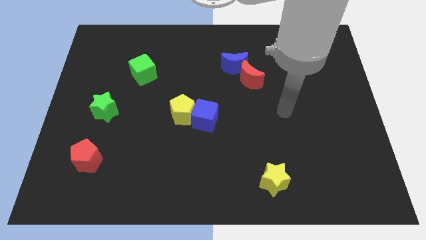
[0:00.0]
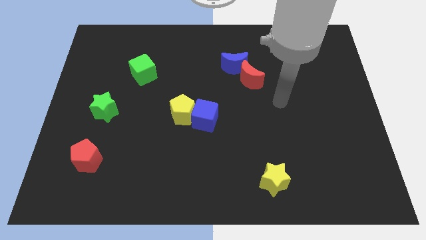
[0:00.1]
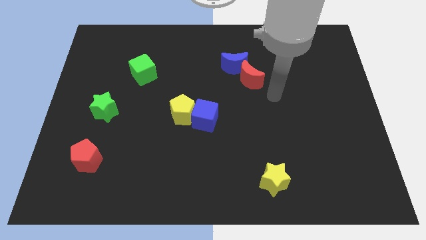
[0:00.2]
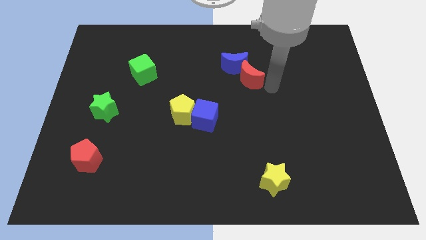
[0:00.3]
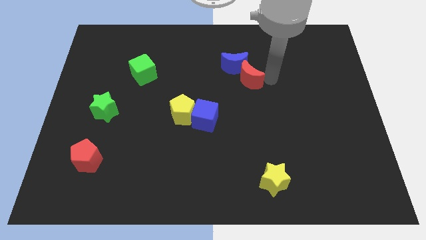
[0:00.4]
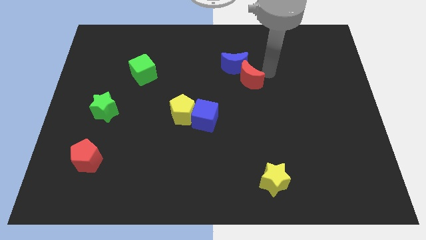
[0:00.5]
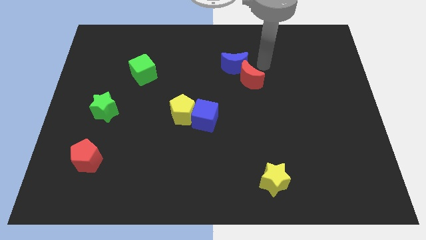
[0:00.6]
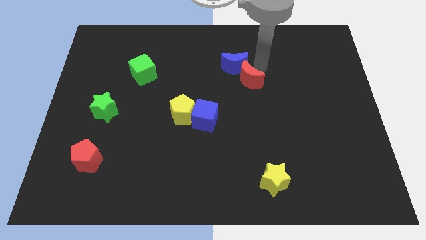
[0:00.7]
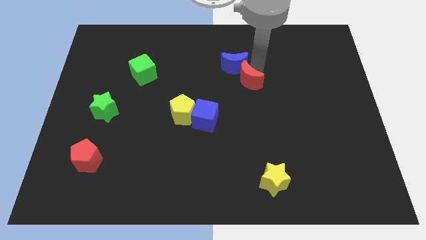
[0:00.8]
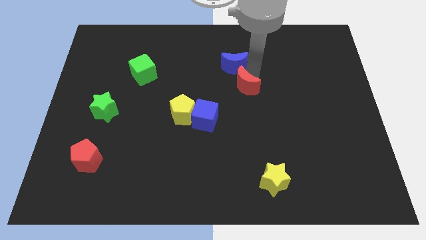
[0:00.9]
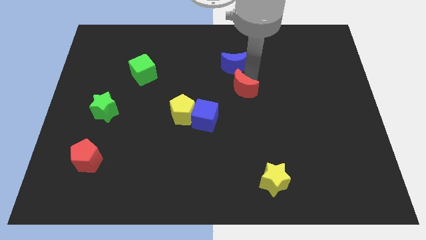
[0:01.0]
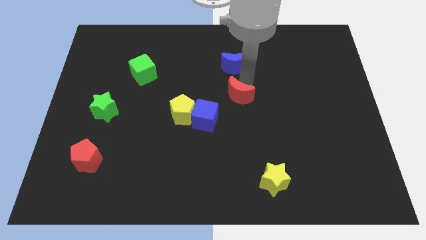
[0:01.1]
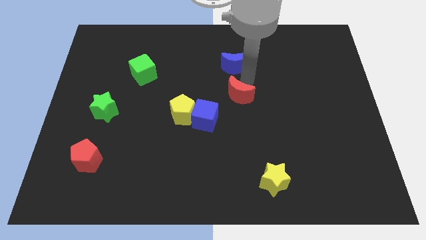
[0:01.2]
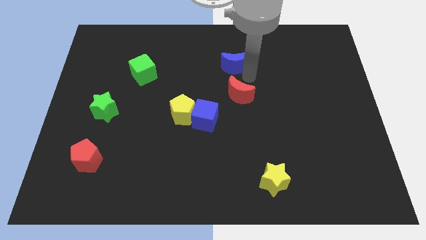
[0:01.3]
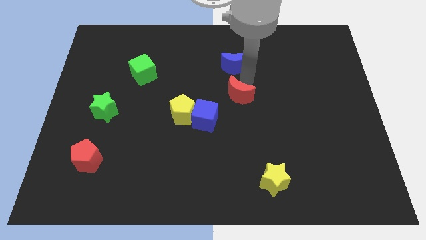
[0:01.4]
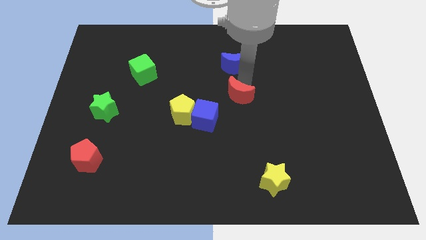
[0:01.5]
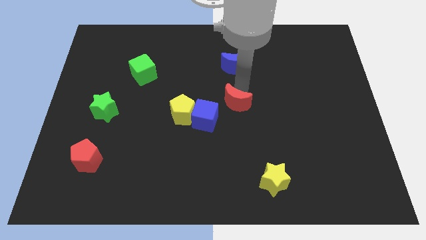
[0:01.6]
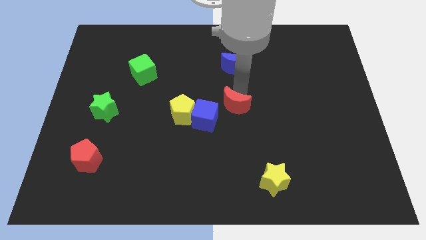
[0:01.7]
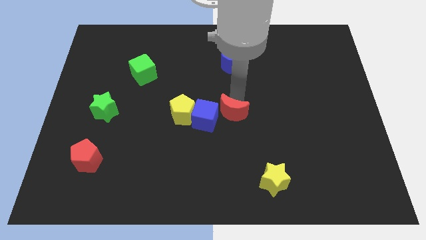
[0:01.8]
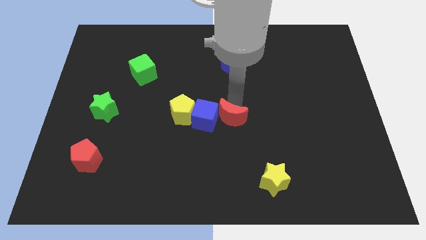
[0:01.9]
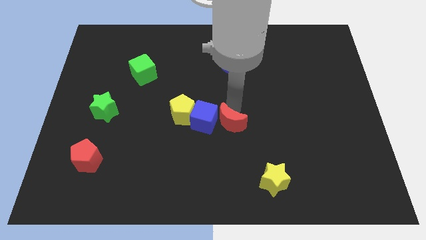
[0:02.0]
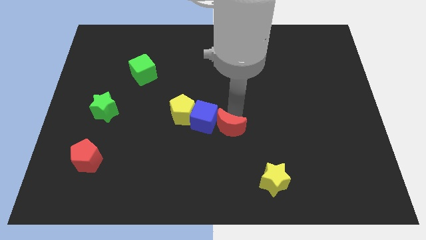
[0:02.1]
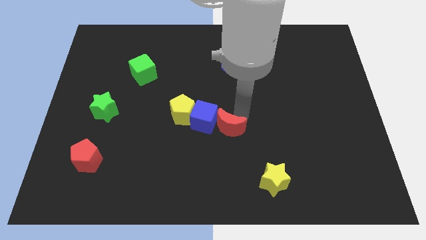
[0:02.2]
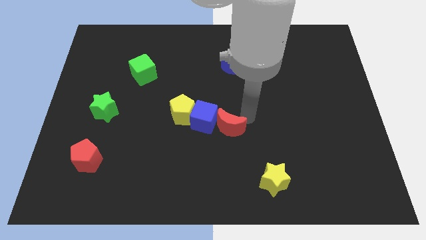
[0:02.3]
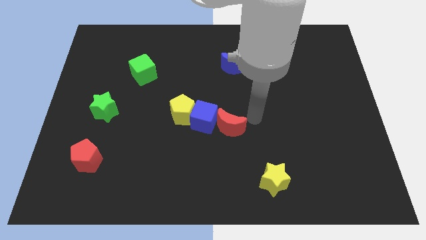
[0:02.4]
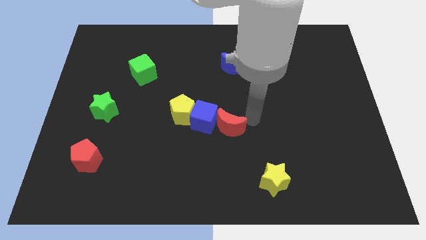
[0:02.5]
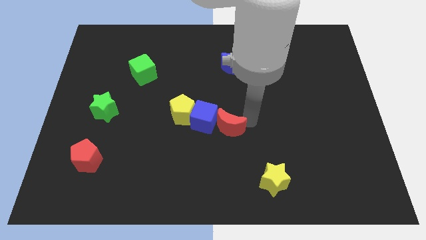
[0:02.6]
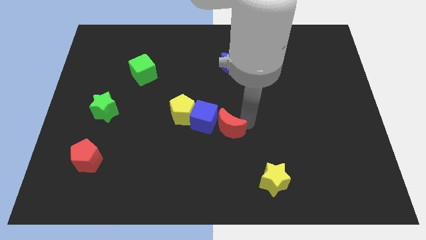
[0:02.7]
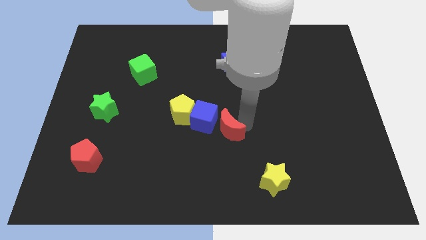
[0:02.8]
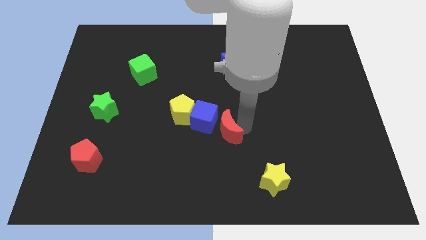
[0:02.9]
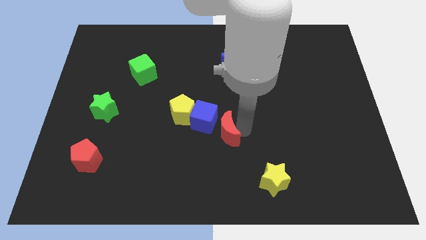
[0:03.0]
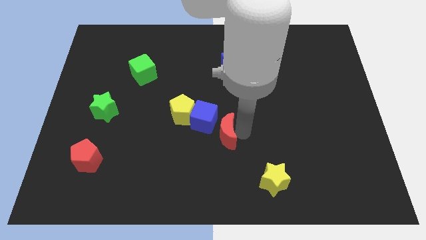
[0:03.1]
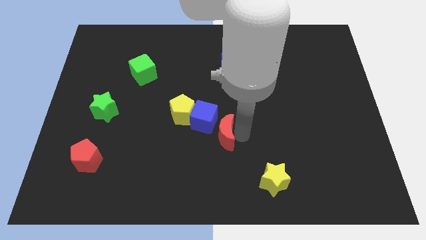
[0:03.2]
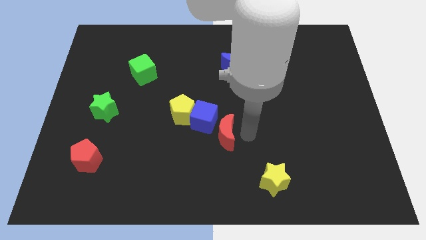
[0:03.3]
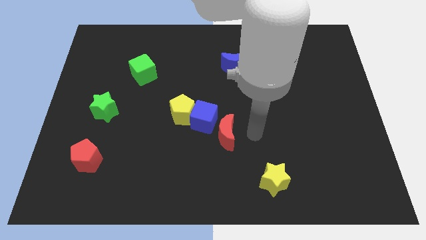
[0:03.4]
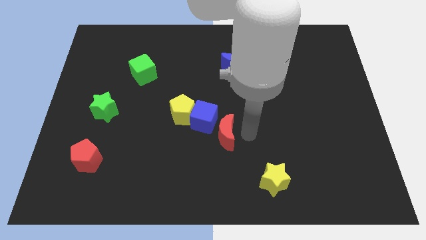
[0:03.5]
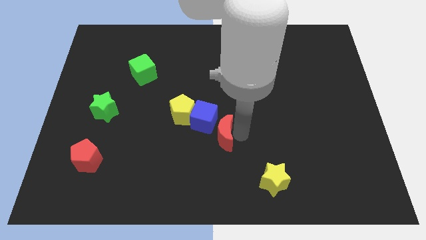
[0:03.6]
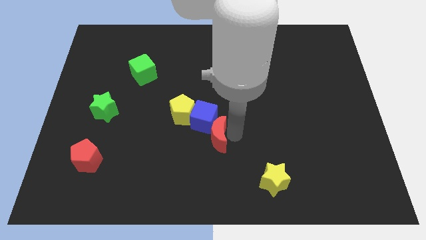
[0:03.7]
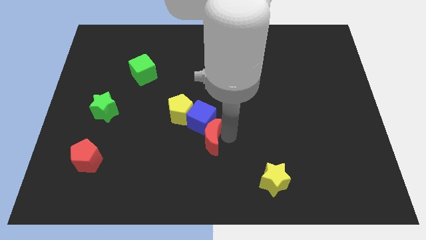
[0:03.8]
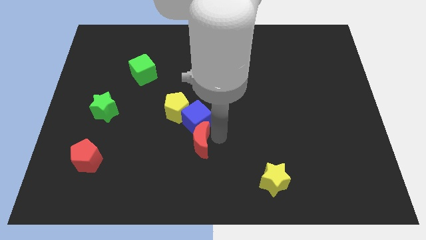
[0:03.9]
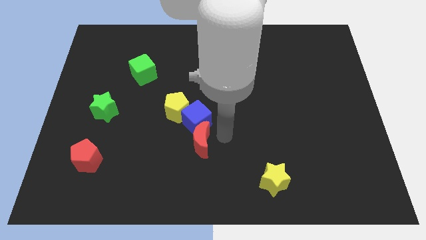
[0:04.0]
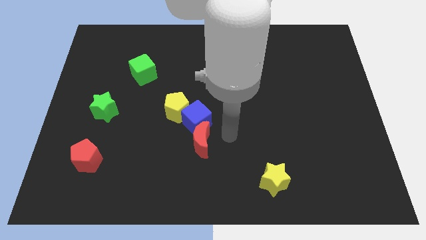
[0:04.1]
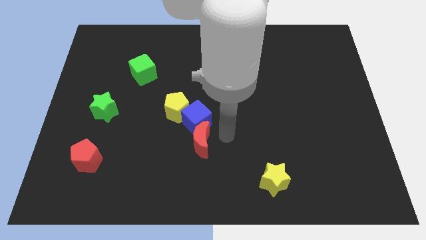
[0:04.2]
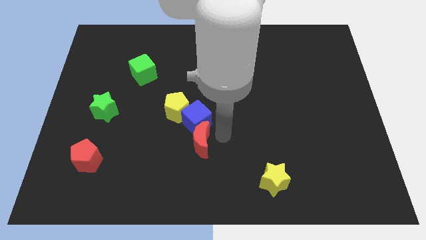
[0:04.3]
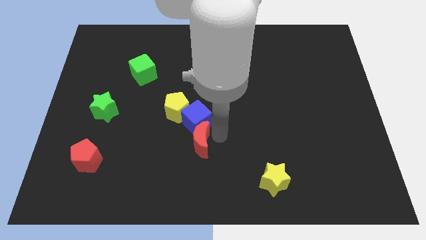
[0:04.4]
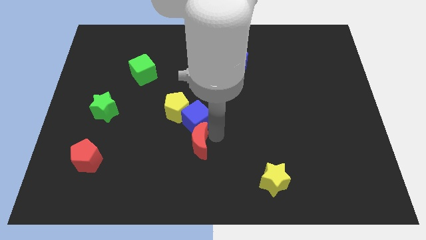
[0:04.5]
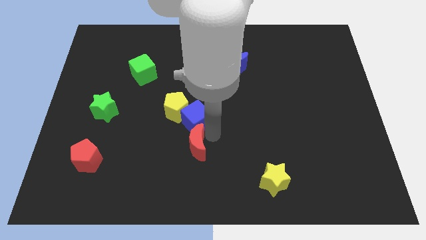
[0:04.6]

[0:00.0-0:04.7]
put the red moon below the yellow pentagon

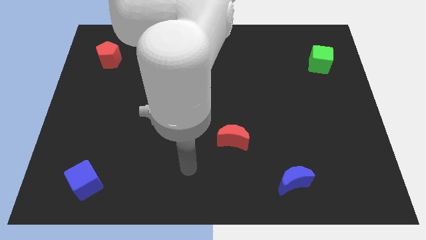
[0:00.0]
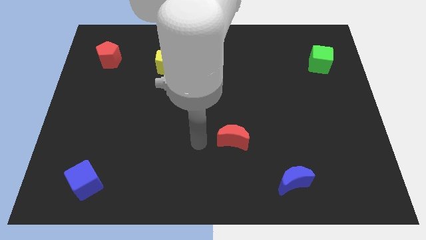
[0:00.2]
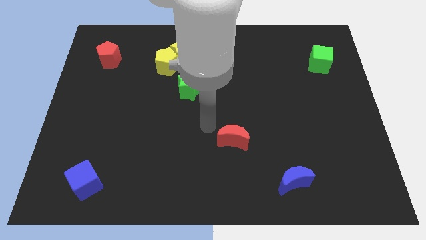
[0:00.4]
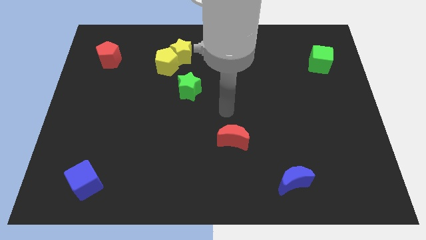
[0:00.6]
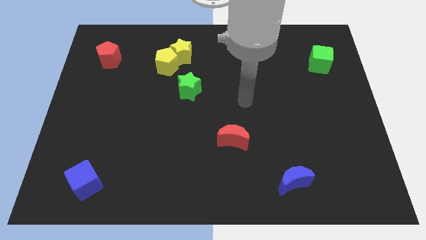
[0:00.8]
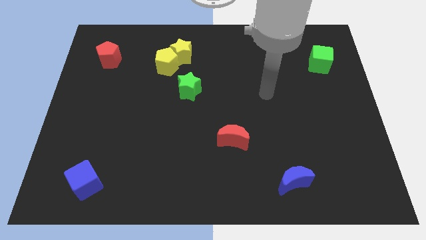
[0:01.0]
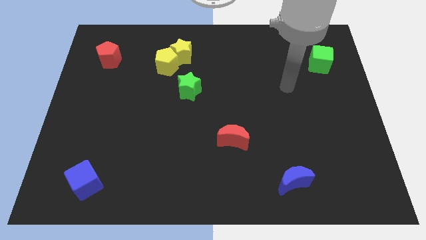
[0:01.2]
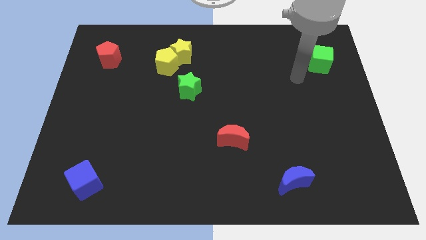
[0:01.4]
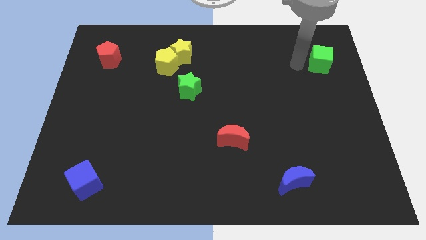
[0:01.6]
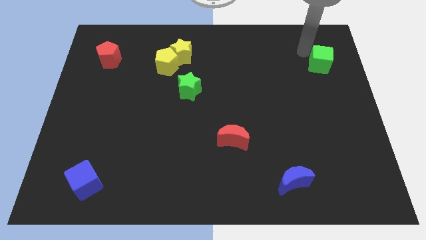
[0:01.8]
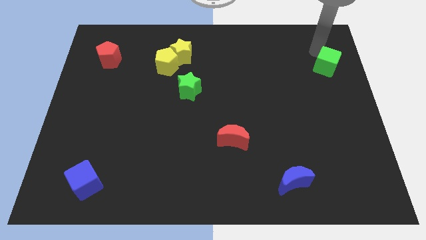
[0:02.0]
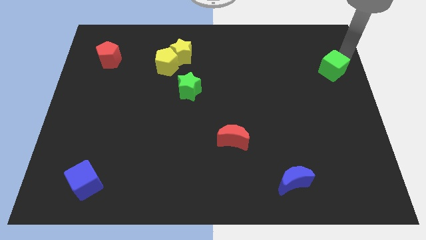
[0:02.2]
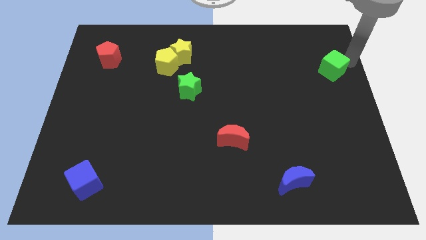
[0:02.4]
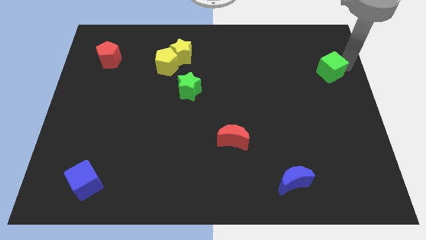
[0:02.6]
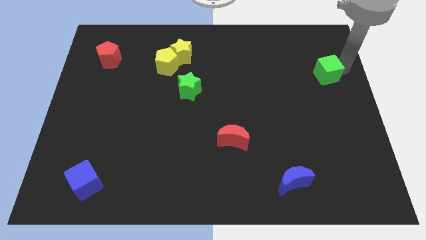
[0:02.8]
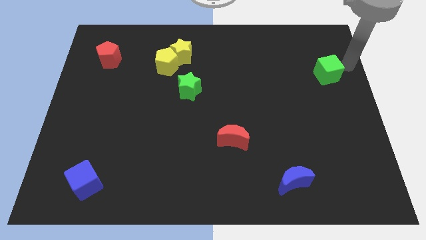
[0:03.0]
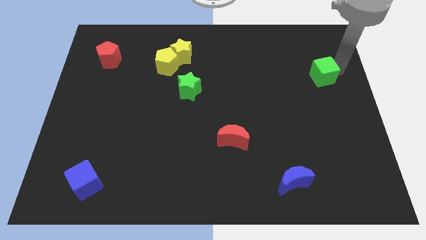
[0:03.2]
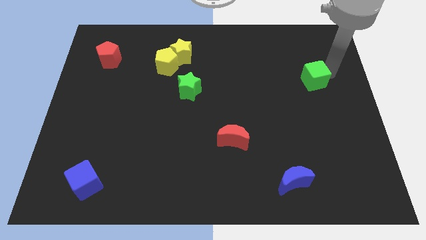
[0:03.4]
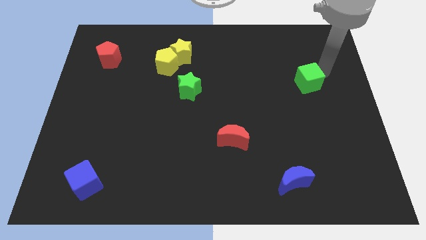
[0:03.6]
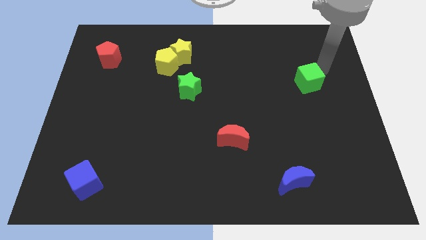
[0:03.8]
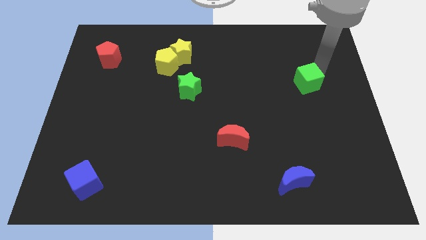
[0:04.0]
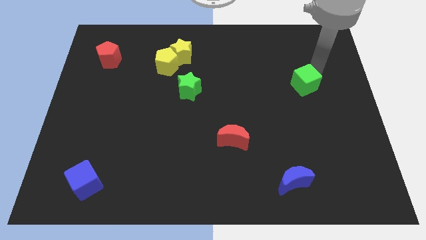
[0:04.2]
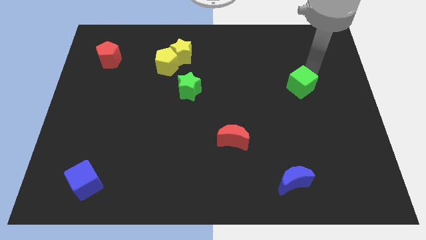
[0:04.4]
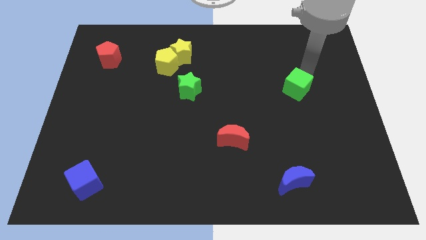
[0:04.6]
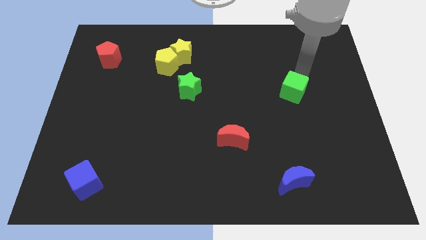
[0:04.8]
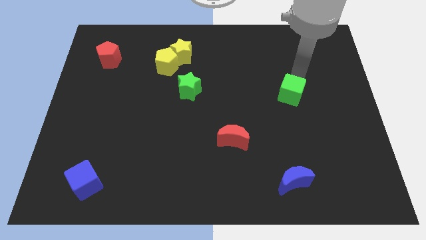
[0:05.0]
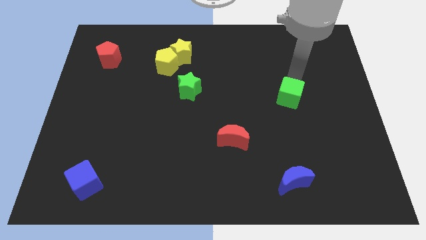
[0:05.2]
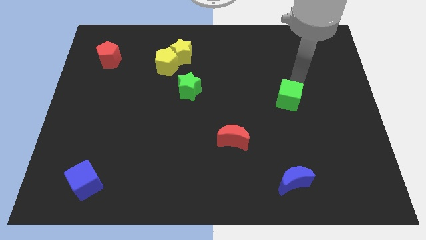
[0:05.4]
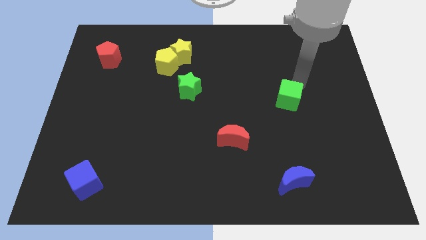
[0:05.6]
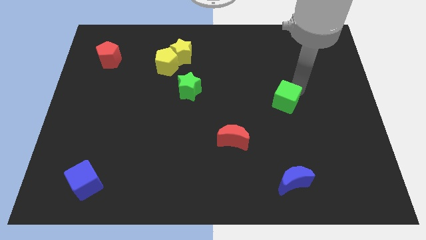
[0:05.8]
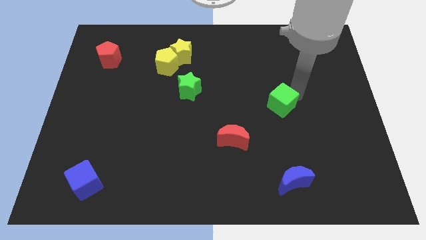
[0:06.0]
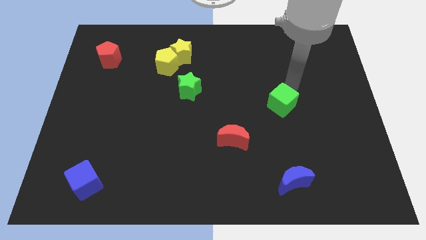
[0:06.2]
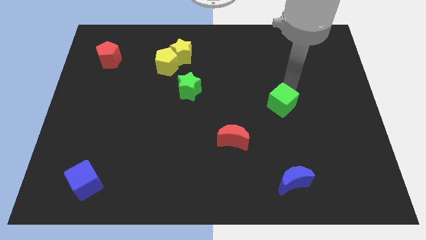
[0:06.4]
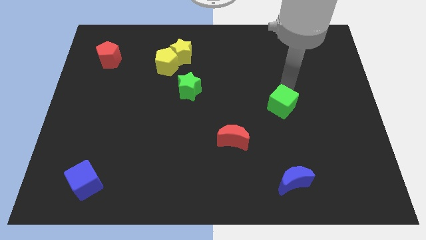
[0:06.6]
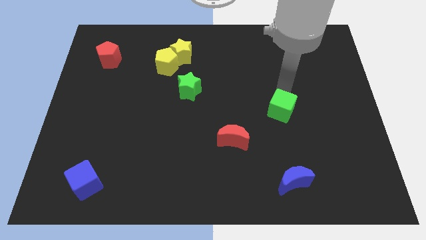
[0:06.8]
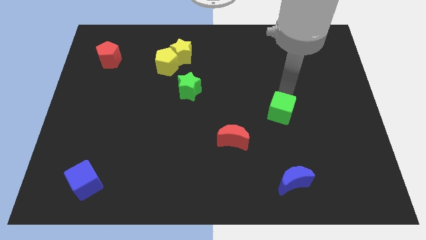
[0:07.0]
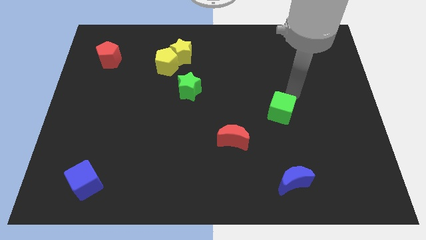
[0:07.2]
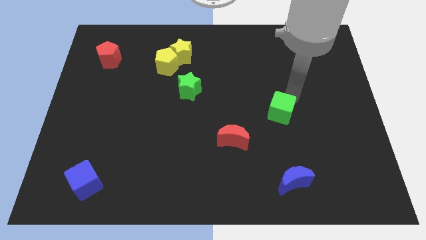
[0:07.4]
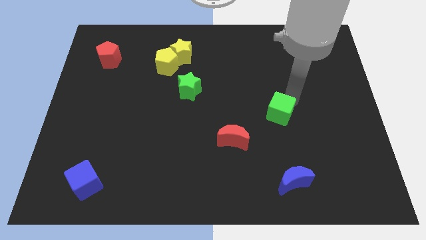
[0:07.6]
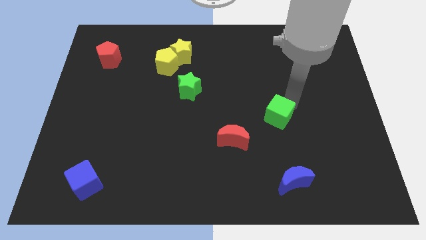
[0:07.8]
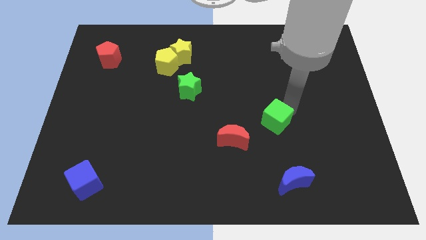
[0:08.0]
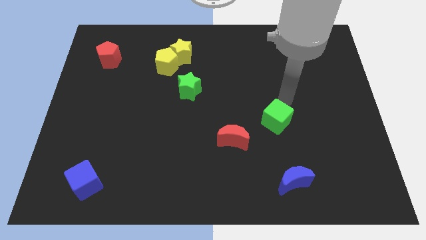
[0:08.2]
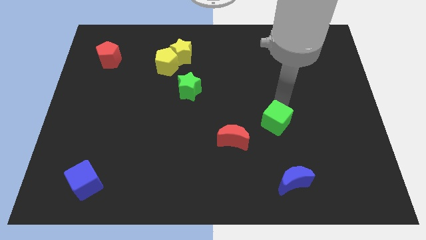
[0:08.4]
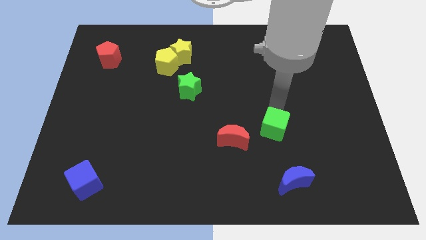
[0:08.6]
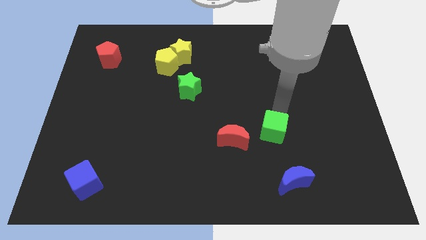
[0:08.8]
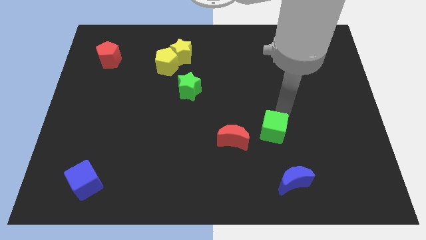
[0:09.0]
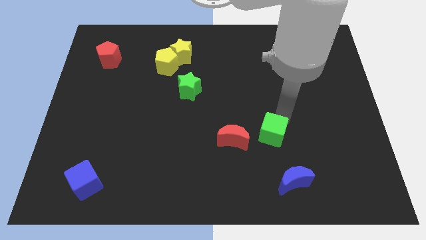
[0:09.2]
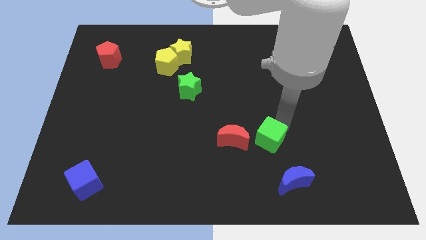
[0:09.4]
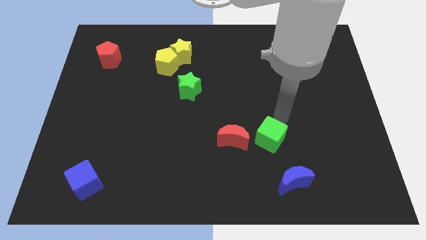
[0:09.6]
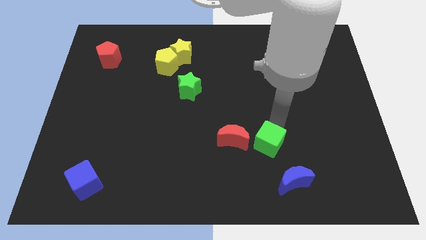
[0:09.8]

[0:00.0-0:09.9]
put the green cube diagonally down and to the right of the red moon
